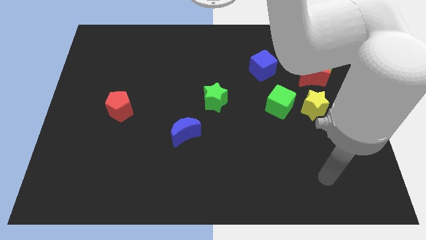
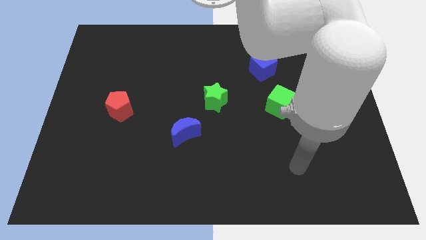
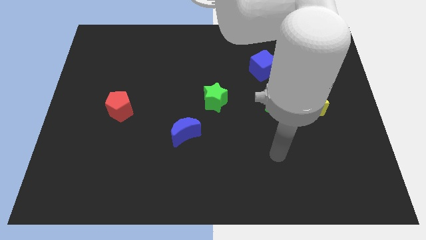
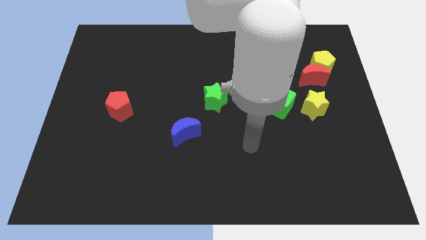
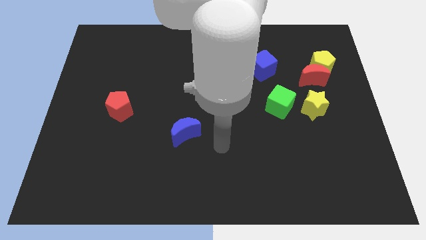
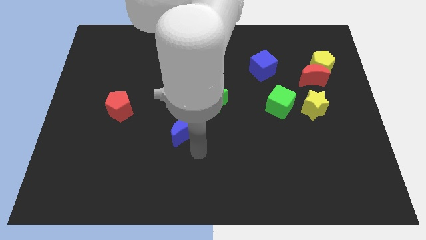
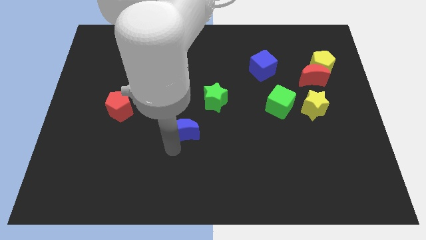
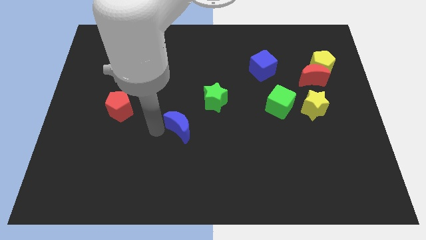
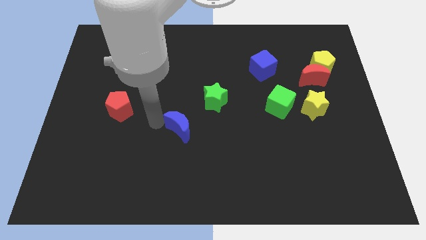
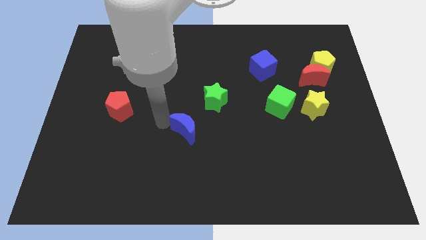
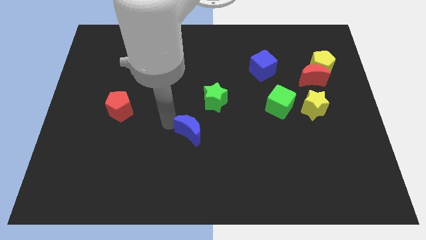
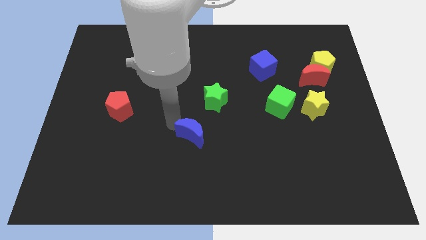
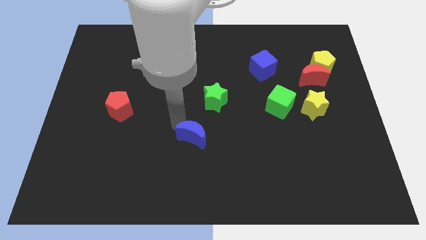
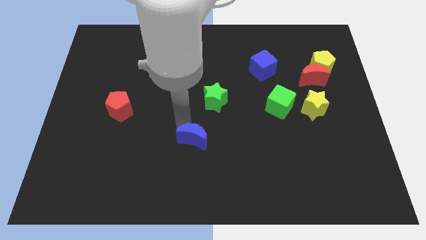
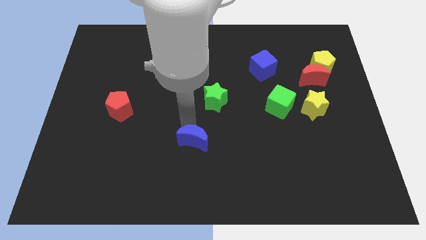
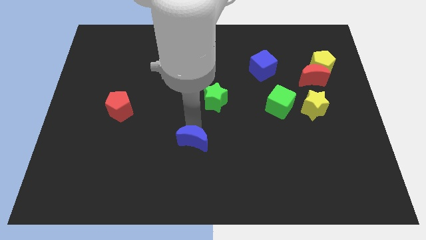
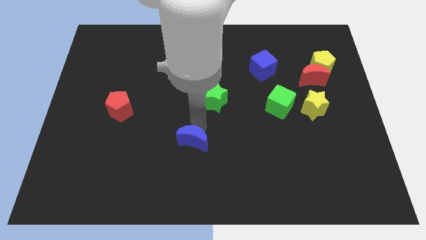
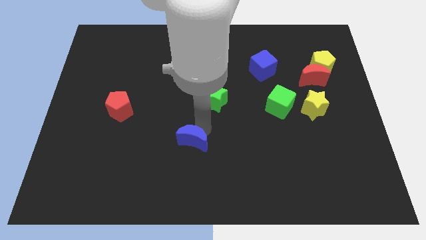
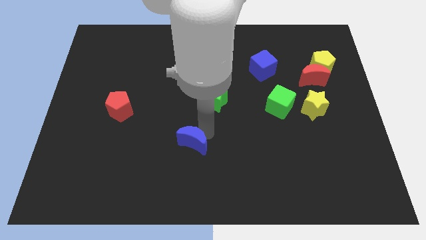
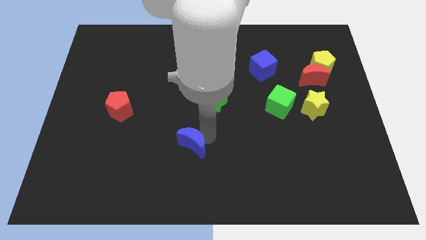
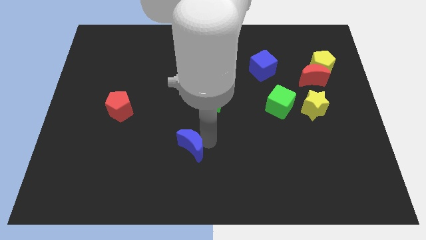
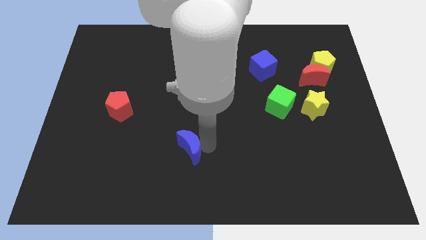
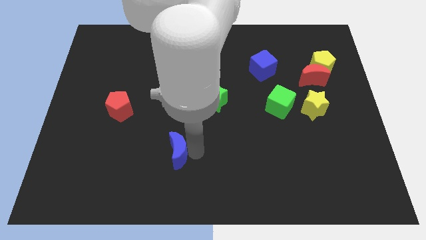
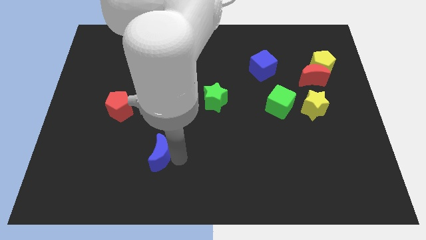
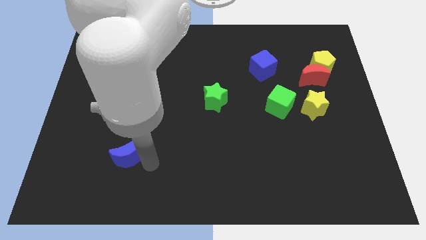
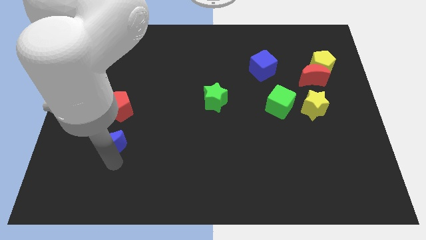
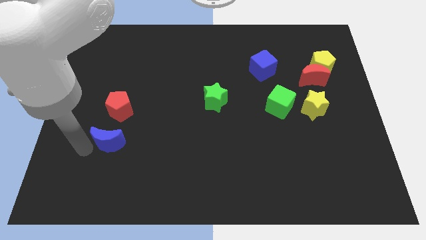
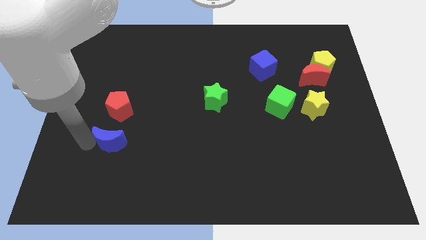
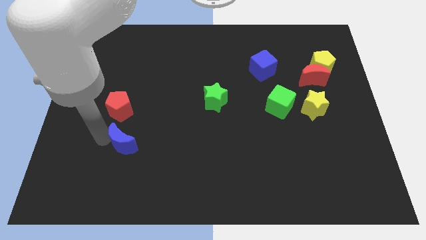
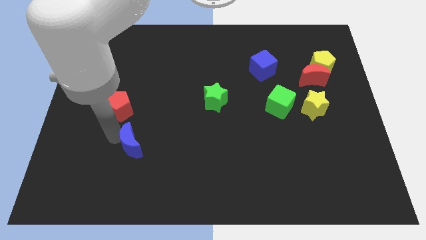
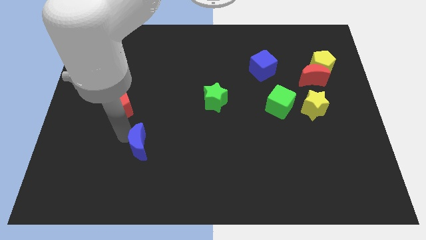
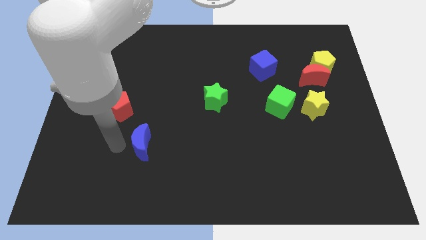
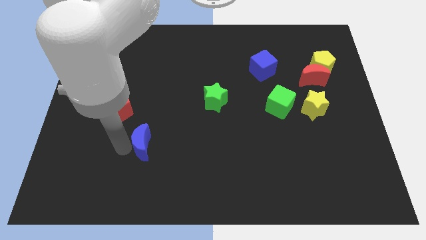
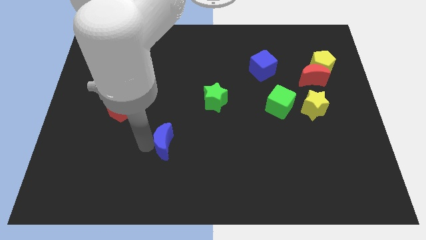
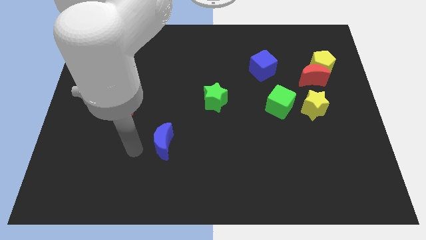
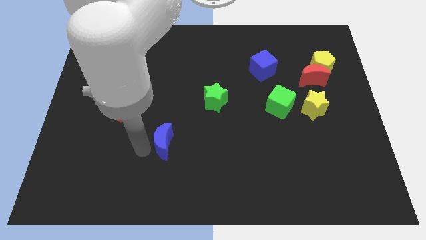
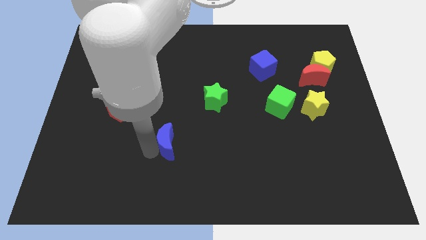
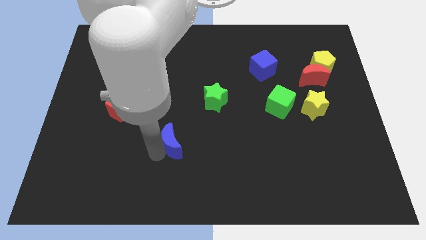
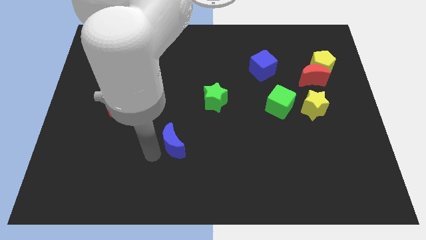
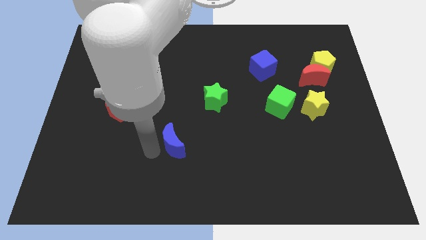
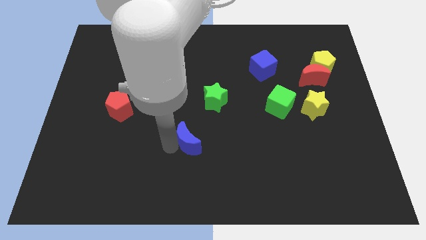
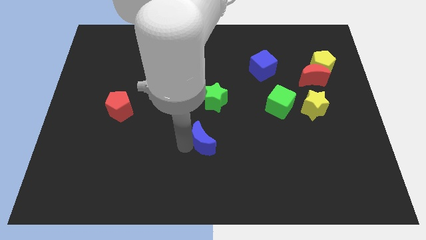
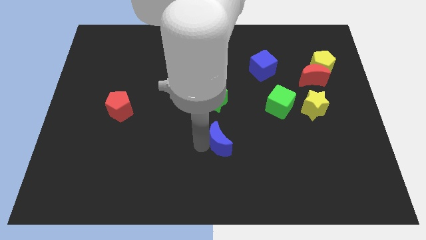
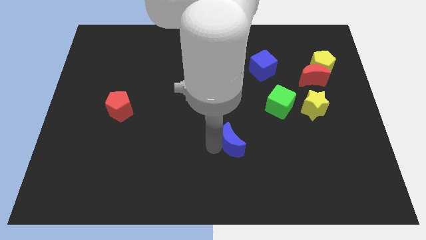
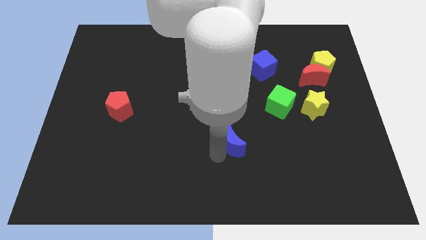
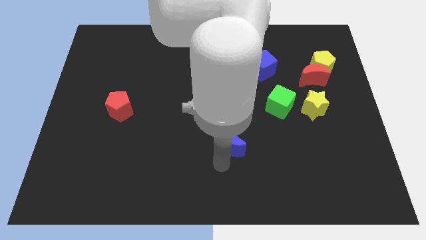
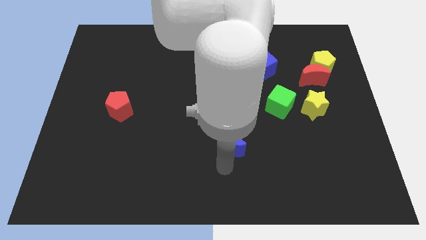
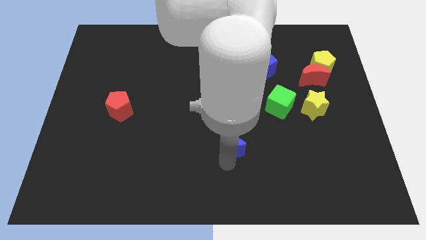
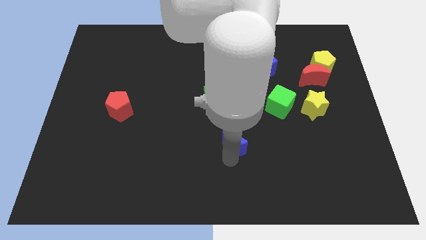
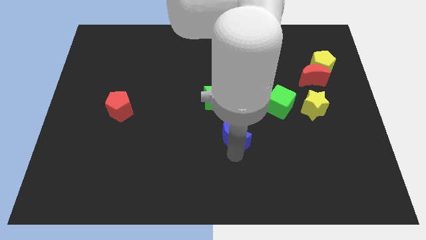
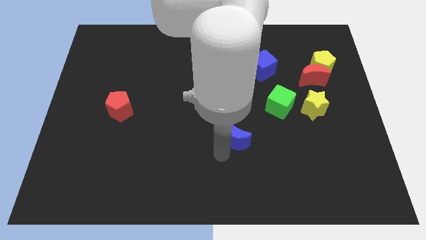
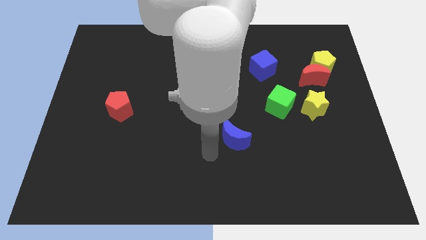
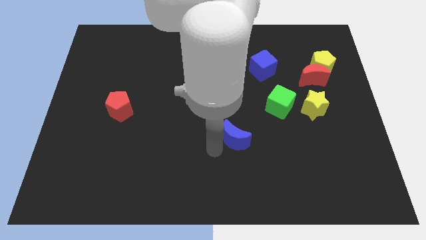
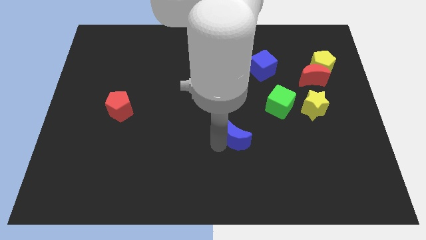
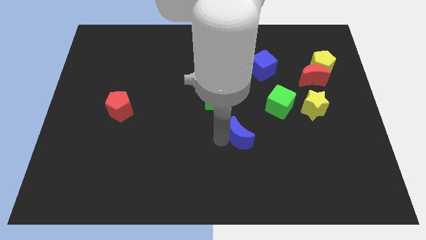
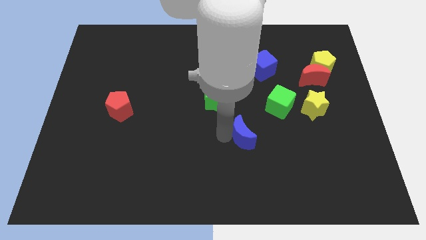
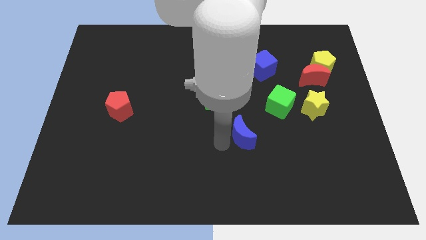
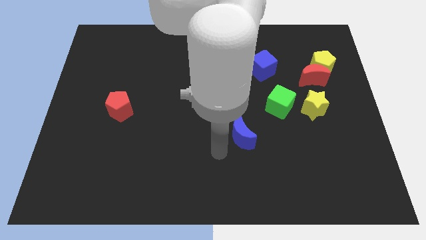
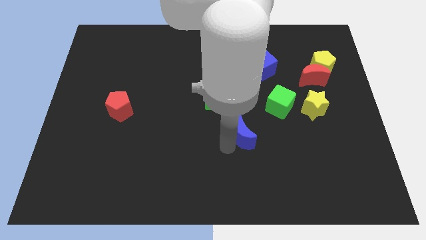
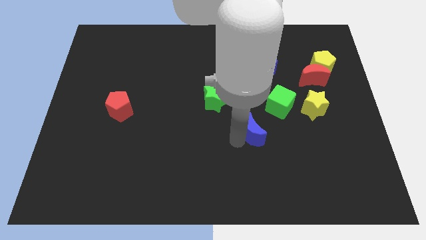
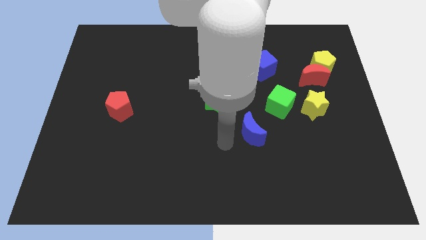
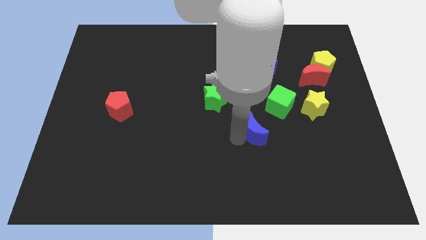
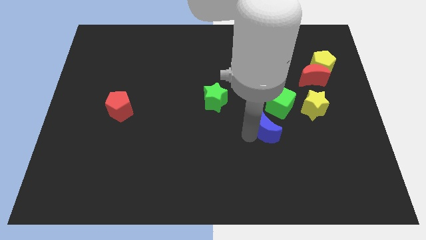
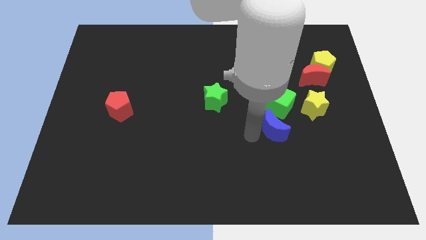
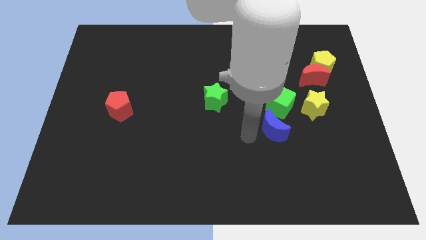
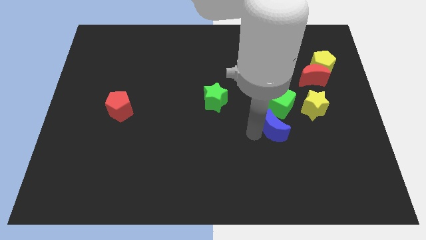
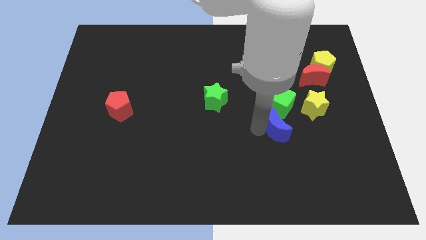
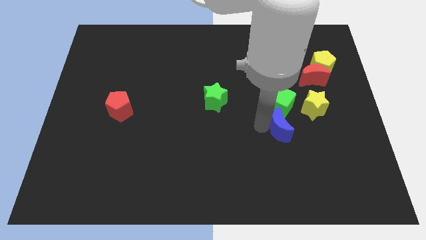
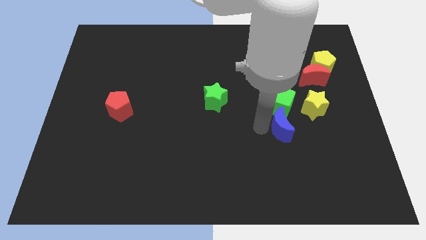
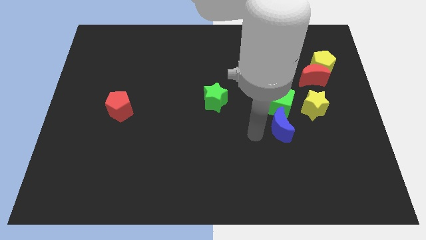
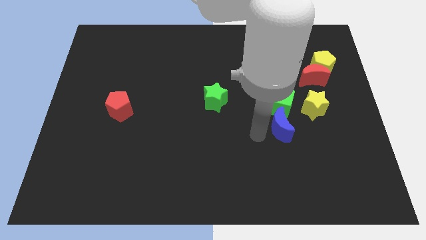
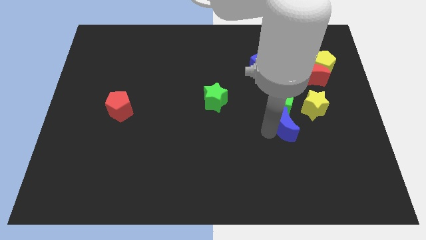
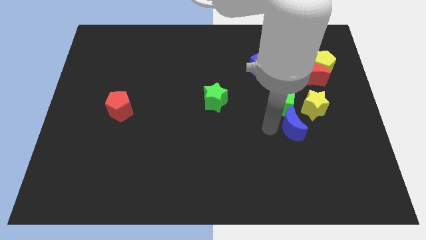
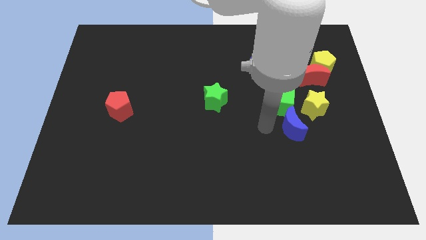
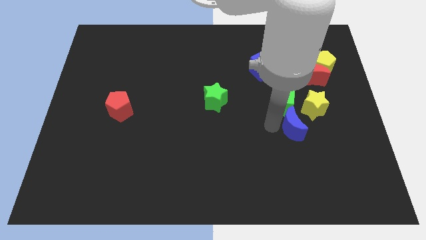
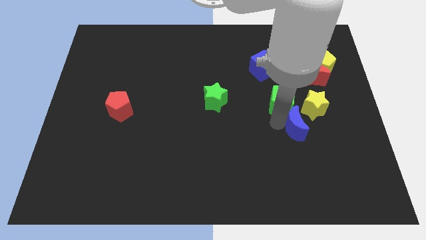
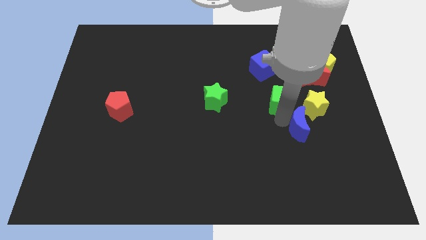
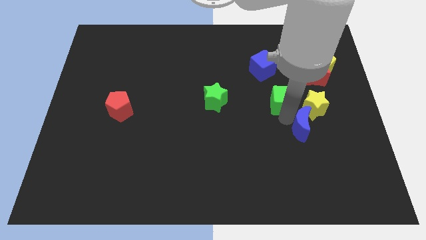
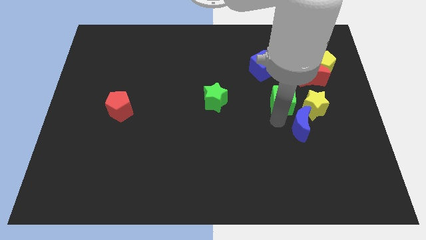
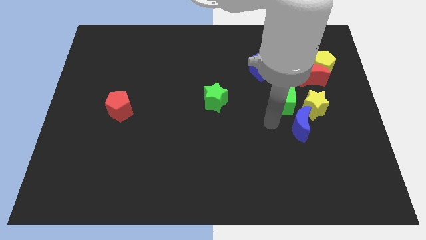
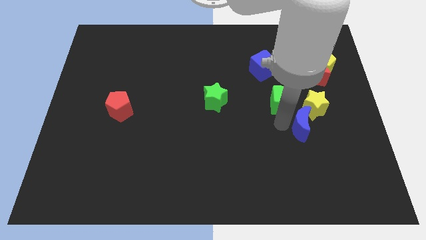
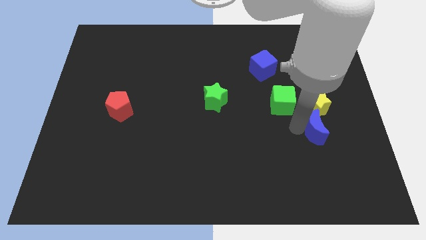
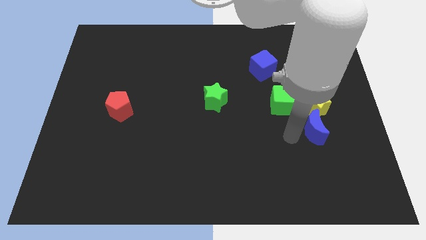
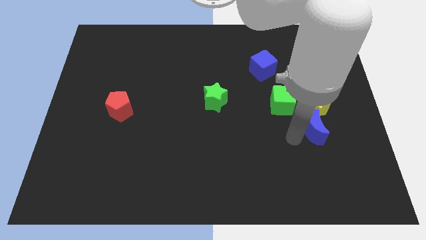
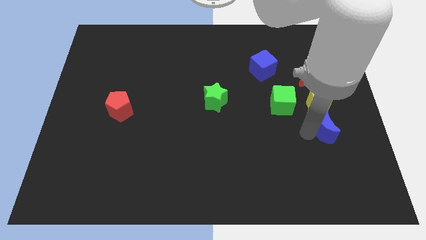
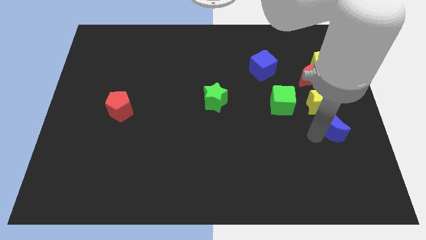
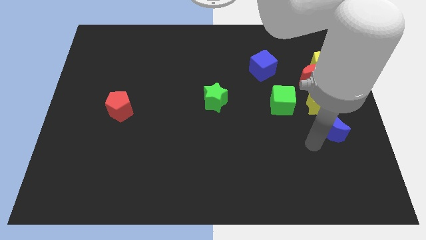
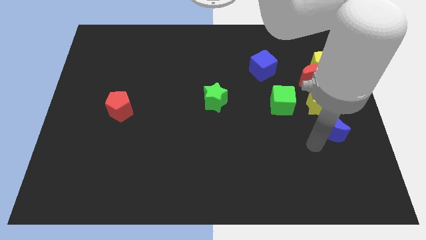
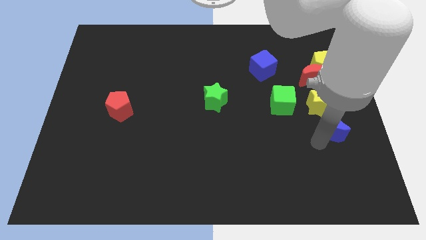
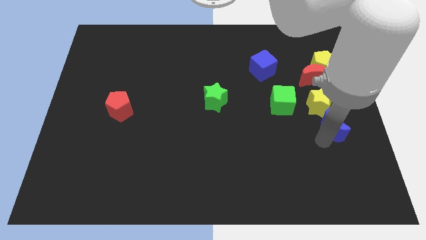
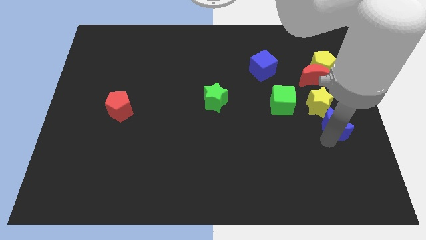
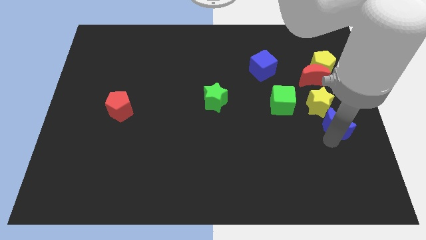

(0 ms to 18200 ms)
move the blue moon to the right side of the board
